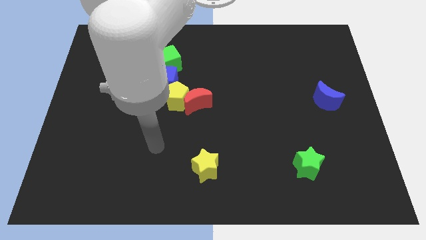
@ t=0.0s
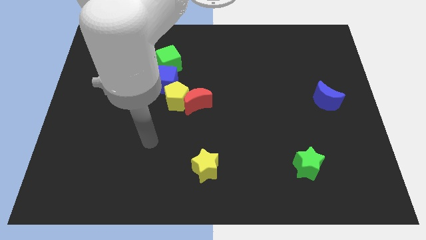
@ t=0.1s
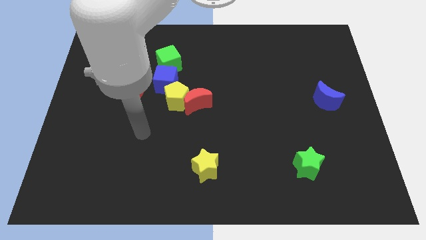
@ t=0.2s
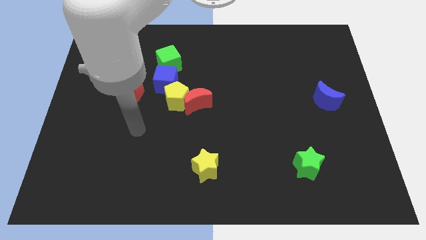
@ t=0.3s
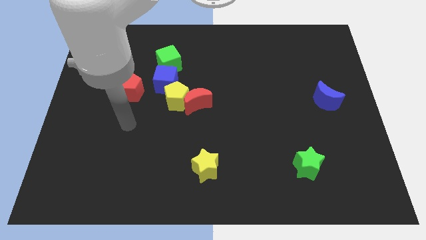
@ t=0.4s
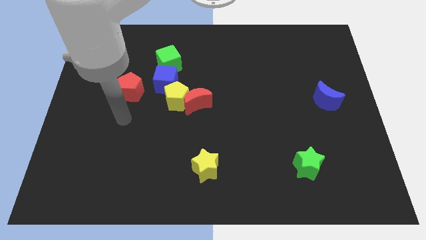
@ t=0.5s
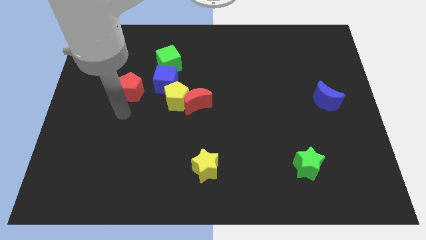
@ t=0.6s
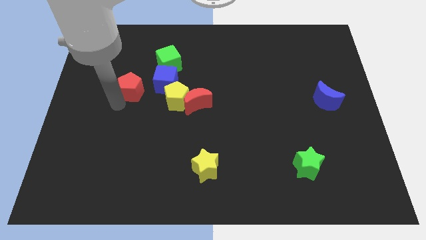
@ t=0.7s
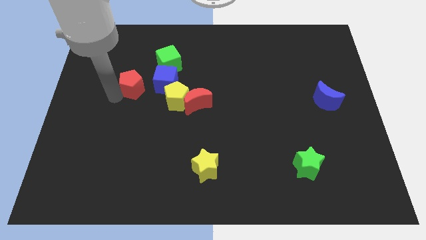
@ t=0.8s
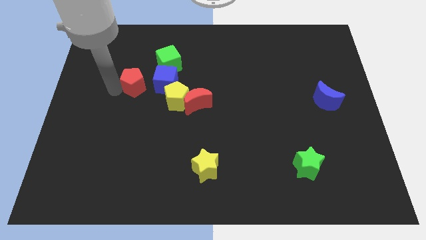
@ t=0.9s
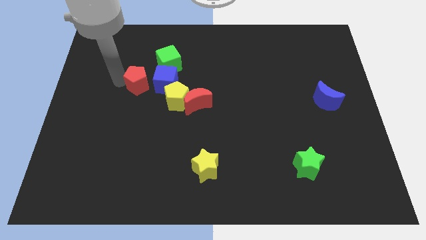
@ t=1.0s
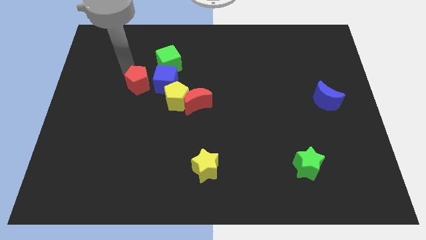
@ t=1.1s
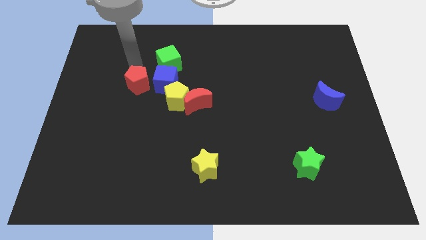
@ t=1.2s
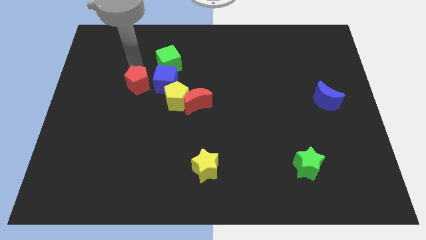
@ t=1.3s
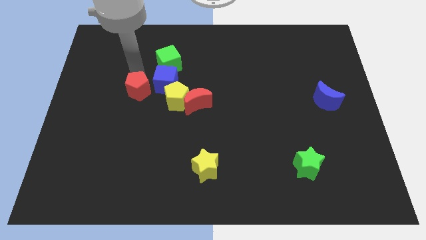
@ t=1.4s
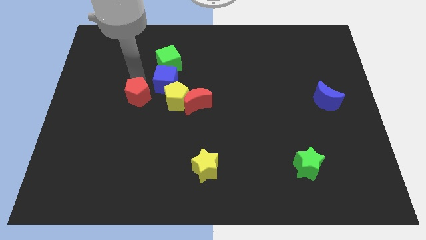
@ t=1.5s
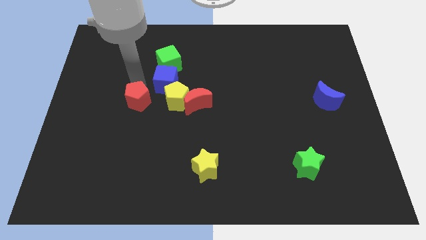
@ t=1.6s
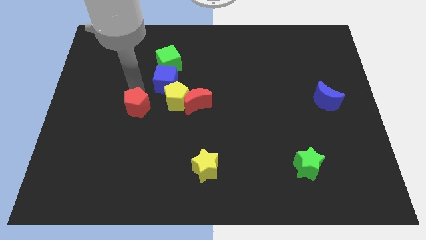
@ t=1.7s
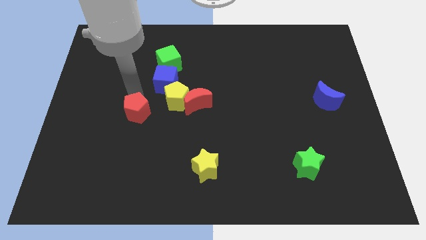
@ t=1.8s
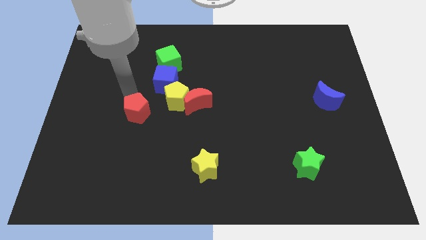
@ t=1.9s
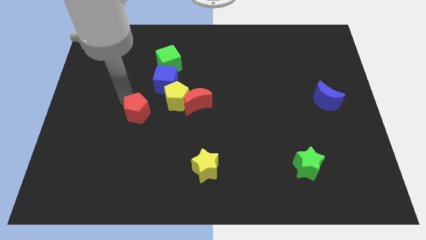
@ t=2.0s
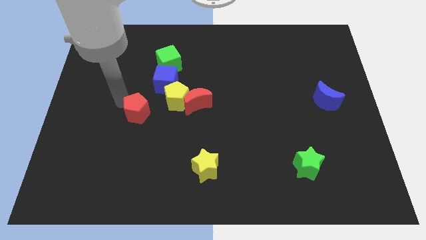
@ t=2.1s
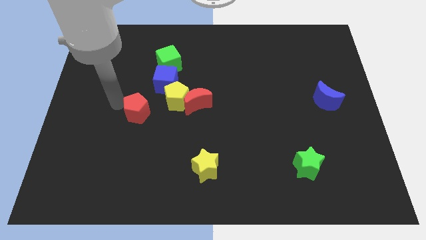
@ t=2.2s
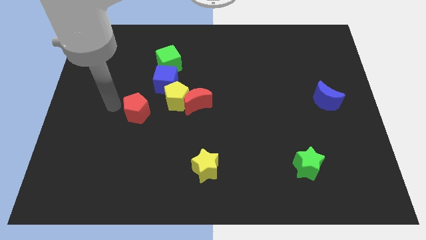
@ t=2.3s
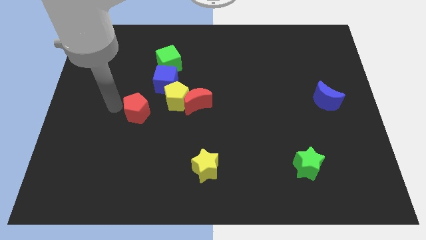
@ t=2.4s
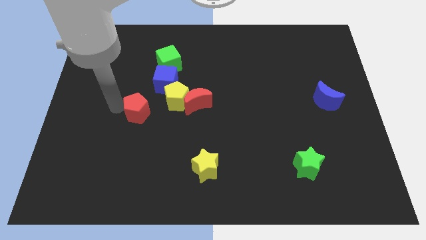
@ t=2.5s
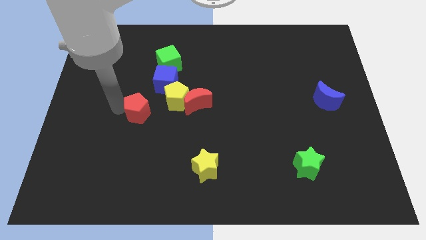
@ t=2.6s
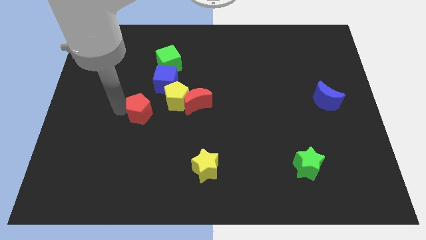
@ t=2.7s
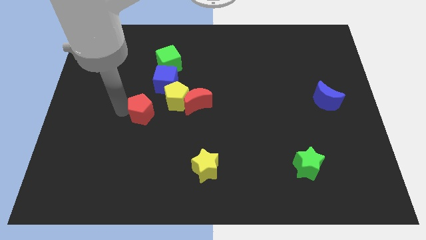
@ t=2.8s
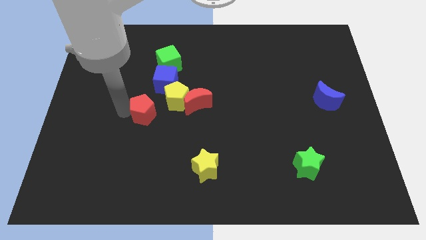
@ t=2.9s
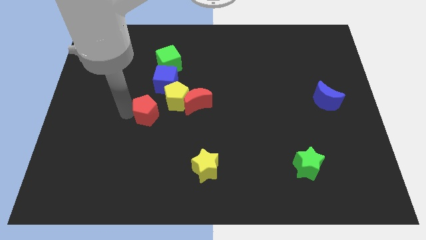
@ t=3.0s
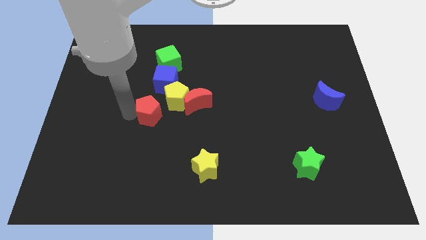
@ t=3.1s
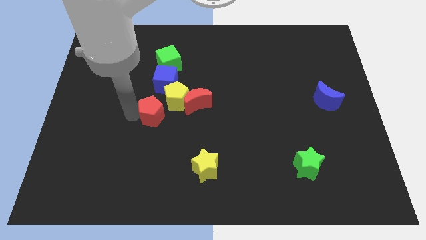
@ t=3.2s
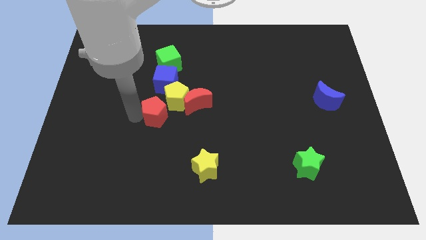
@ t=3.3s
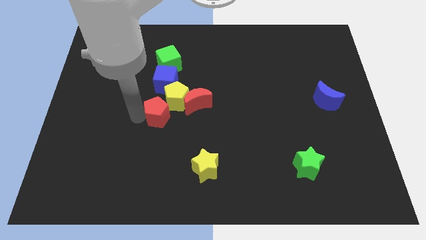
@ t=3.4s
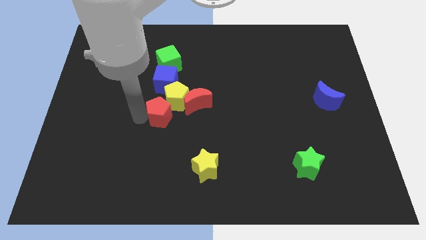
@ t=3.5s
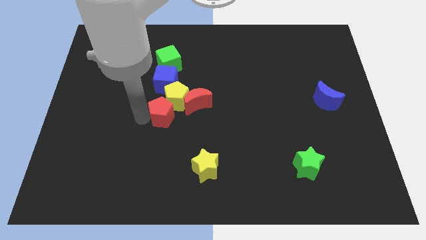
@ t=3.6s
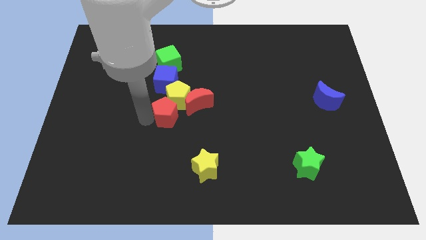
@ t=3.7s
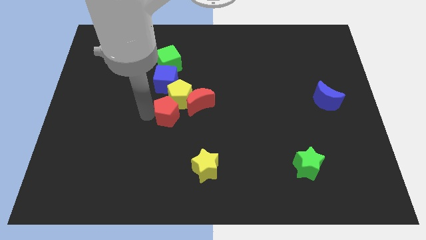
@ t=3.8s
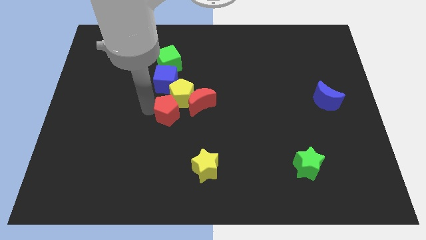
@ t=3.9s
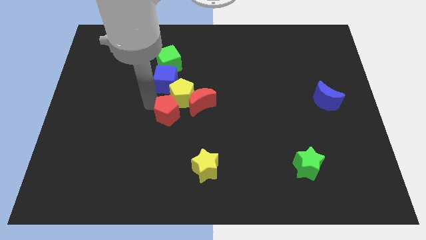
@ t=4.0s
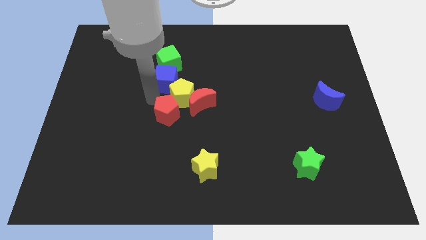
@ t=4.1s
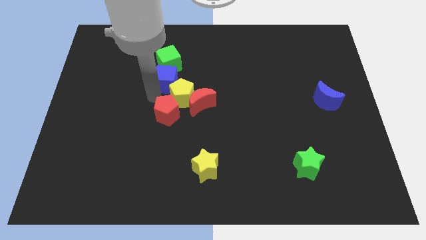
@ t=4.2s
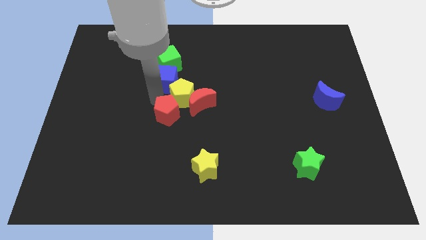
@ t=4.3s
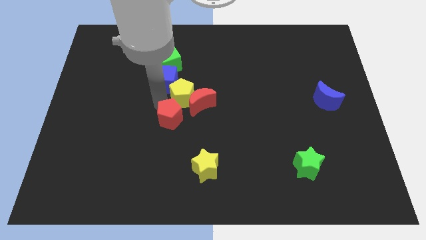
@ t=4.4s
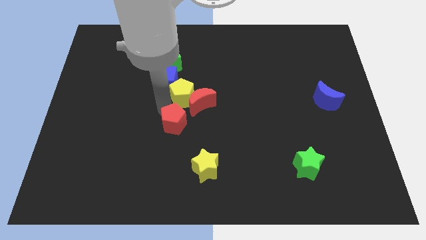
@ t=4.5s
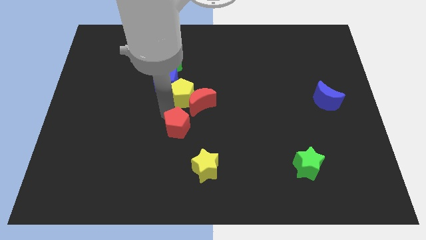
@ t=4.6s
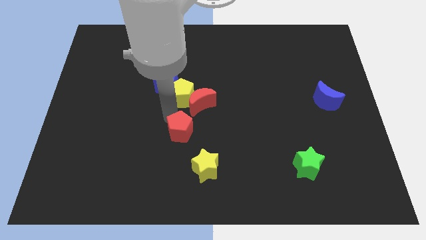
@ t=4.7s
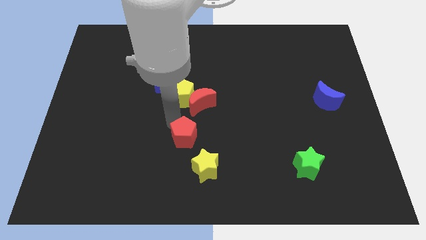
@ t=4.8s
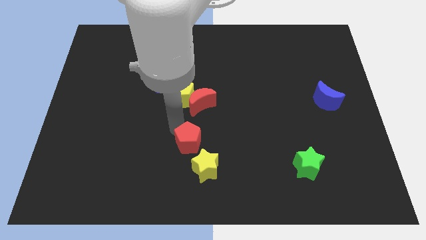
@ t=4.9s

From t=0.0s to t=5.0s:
push the red pentagon diagonally downwards and right

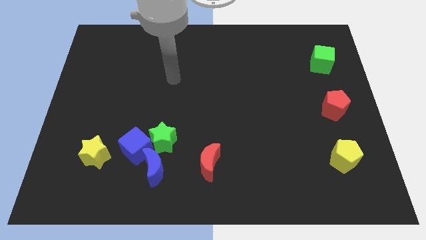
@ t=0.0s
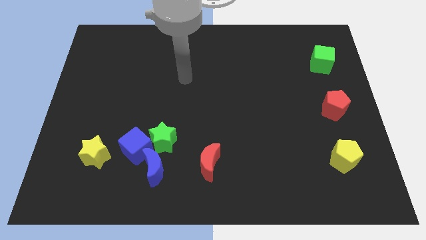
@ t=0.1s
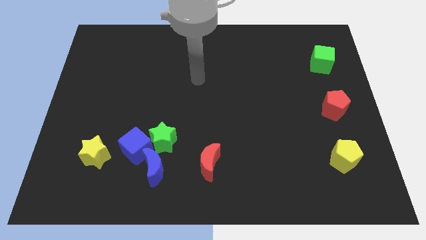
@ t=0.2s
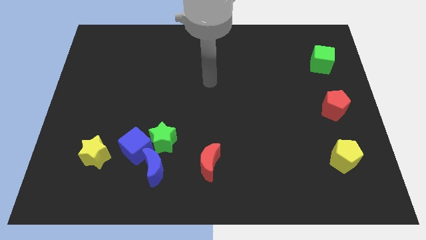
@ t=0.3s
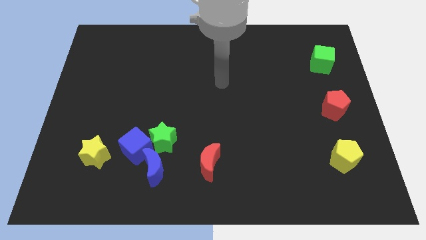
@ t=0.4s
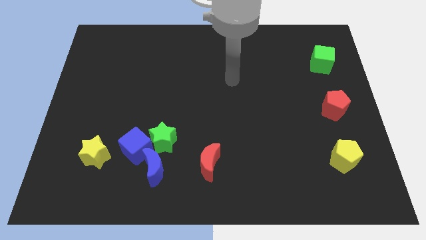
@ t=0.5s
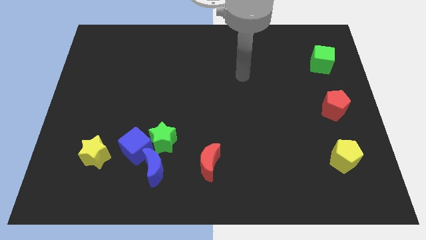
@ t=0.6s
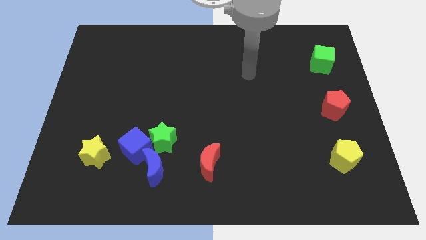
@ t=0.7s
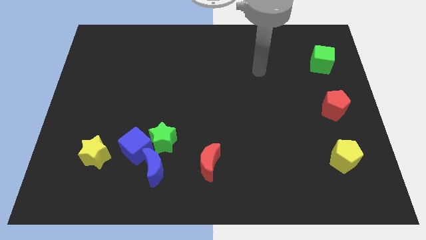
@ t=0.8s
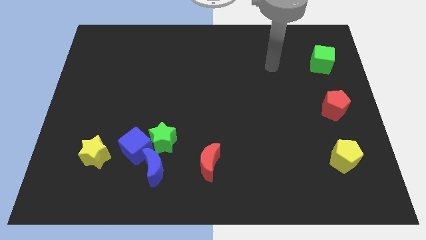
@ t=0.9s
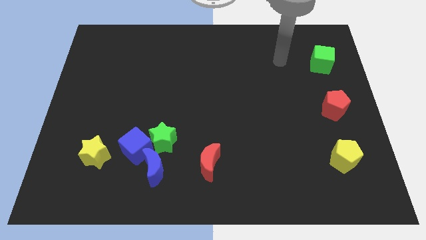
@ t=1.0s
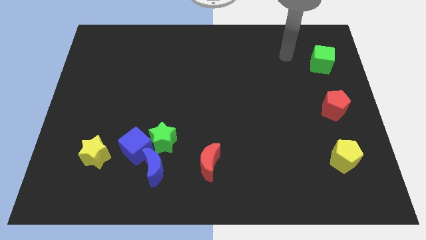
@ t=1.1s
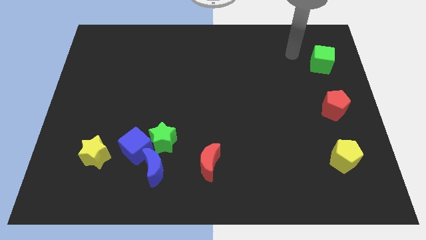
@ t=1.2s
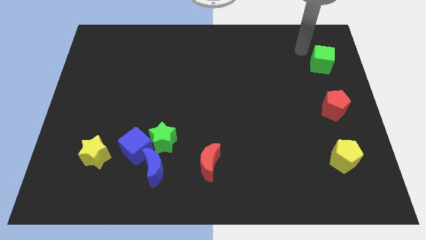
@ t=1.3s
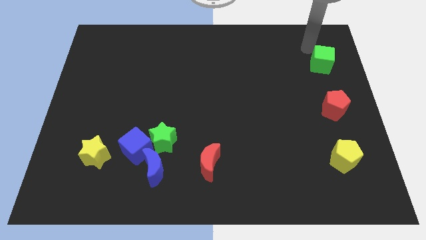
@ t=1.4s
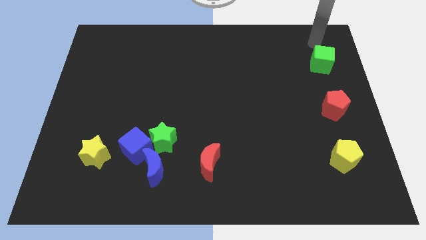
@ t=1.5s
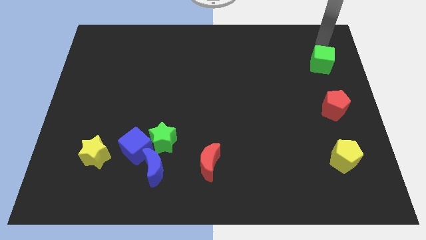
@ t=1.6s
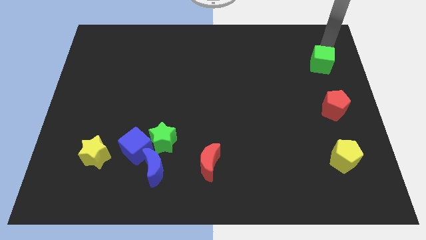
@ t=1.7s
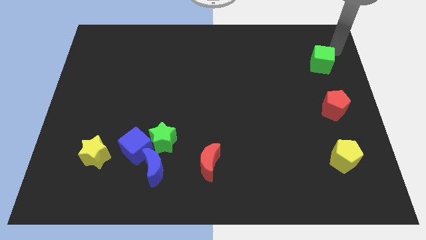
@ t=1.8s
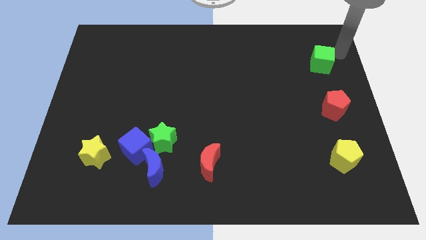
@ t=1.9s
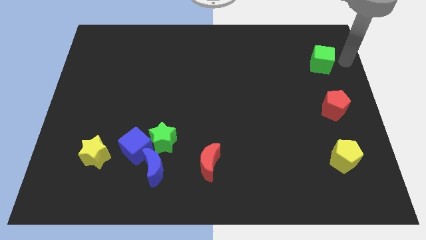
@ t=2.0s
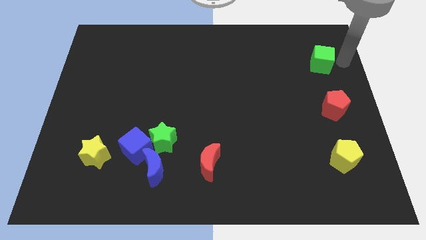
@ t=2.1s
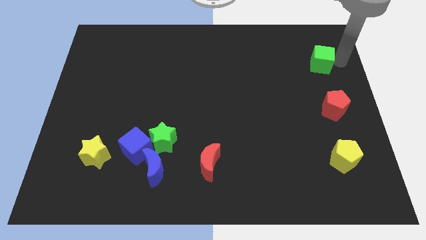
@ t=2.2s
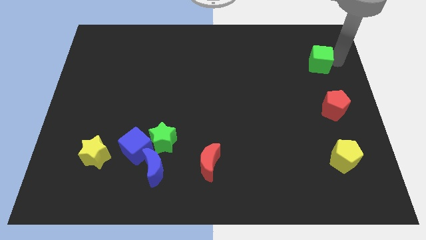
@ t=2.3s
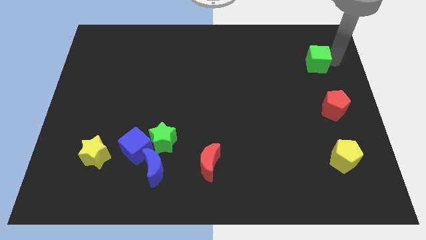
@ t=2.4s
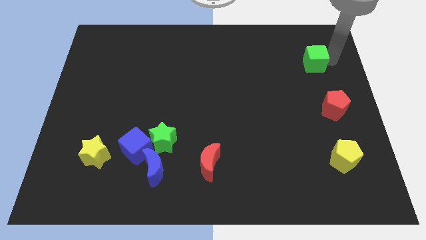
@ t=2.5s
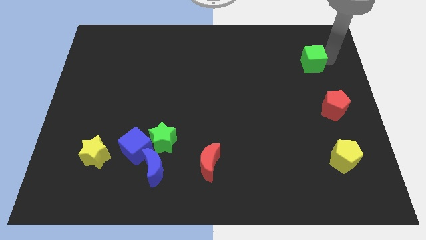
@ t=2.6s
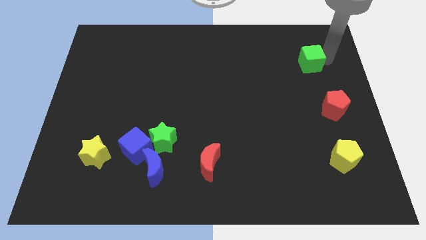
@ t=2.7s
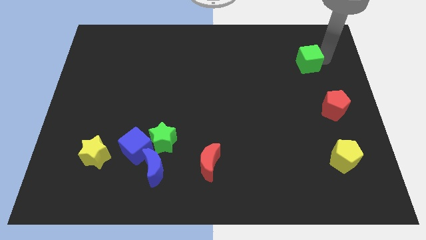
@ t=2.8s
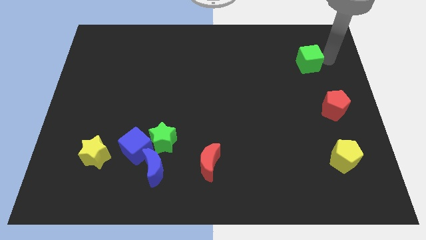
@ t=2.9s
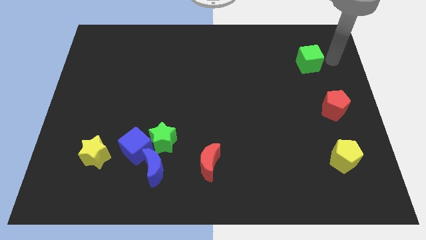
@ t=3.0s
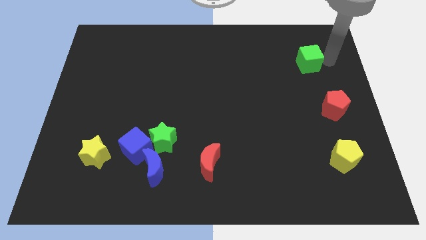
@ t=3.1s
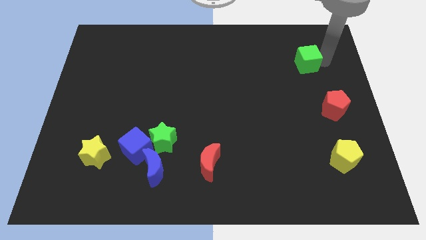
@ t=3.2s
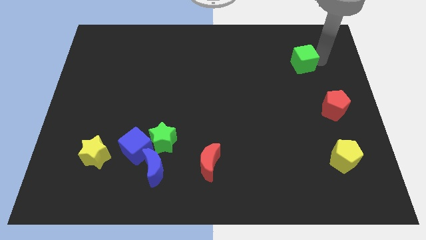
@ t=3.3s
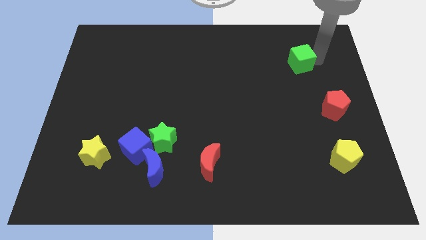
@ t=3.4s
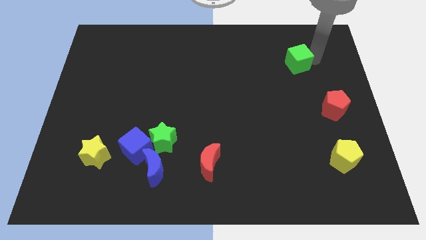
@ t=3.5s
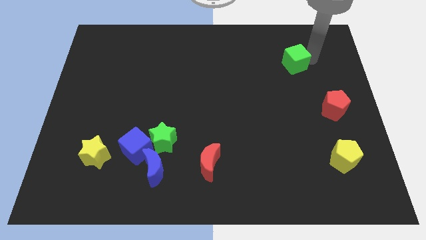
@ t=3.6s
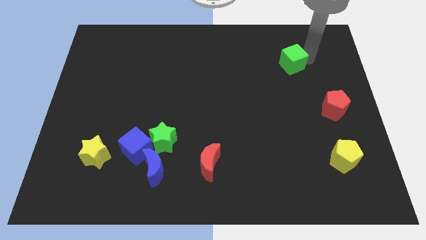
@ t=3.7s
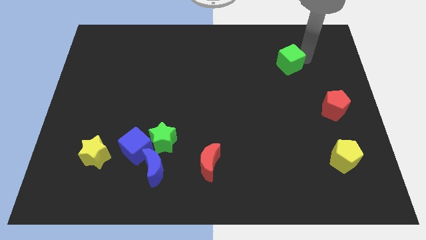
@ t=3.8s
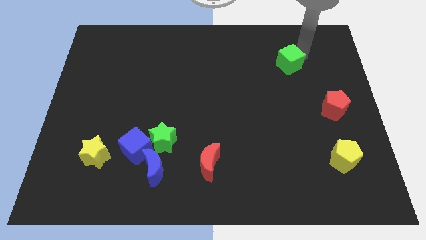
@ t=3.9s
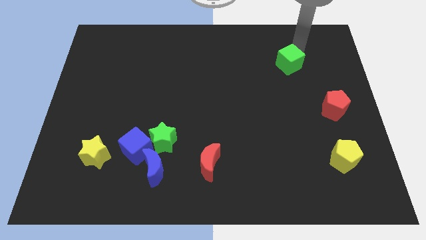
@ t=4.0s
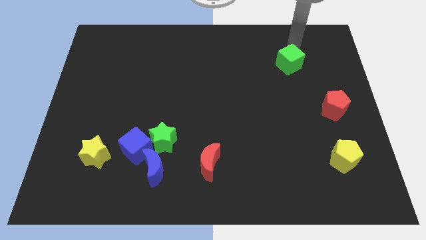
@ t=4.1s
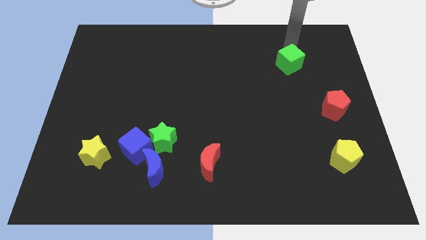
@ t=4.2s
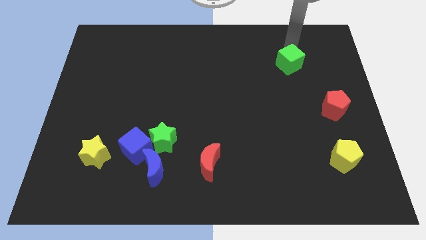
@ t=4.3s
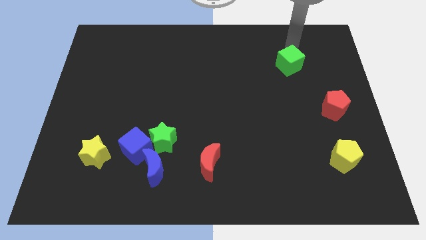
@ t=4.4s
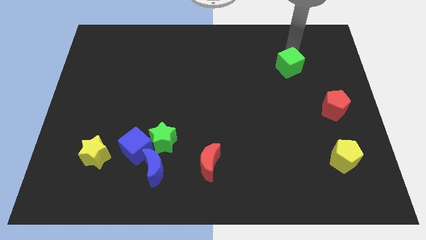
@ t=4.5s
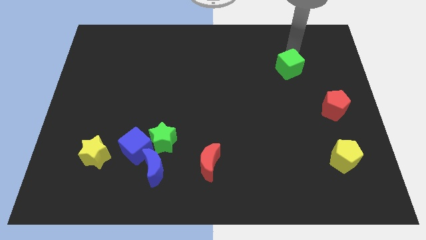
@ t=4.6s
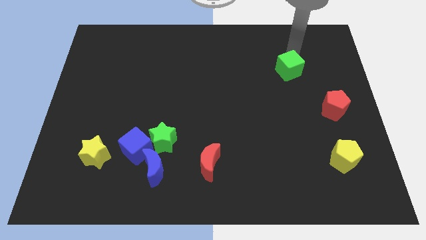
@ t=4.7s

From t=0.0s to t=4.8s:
slide the green cube a bit downwards and then left
